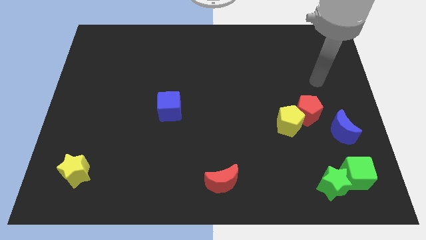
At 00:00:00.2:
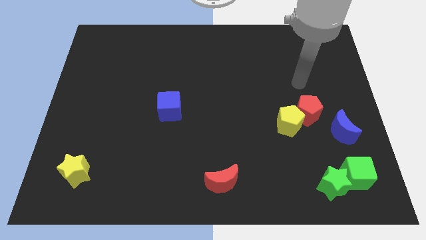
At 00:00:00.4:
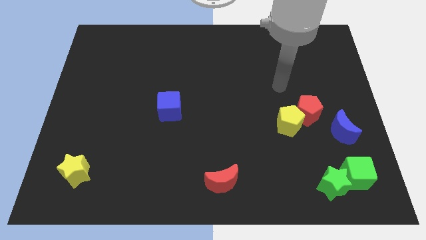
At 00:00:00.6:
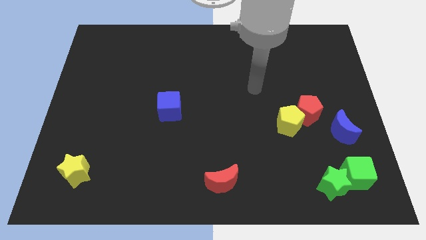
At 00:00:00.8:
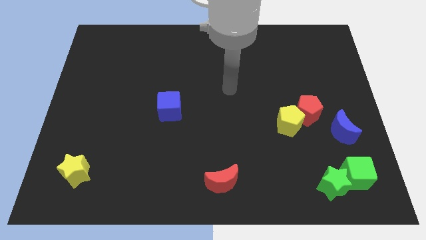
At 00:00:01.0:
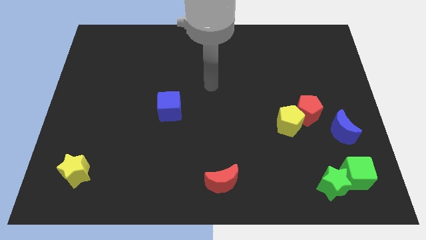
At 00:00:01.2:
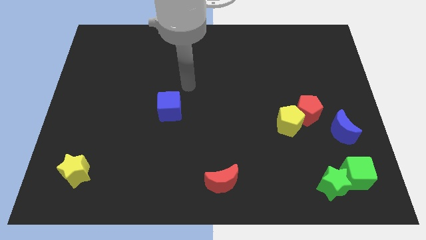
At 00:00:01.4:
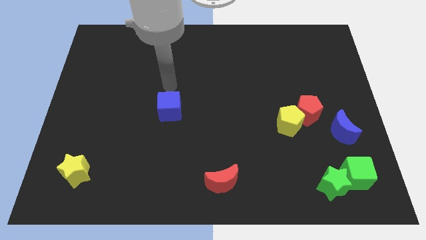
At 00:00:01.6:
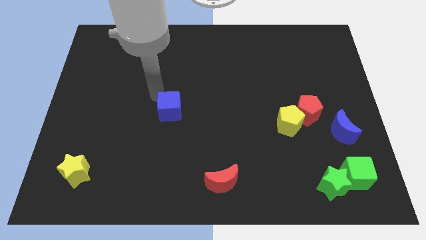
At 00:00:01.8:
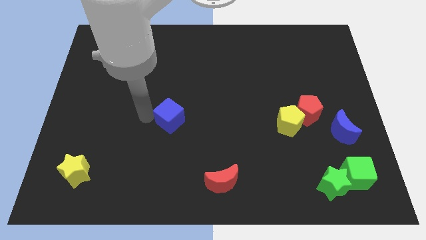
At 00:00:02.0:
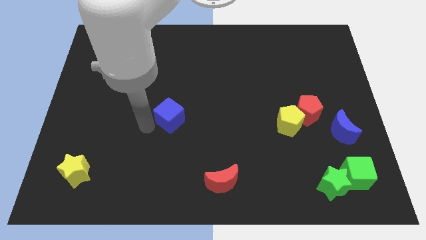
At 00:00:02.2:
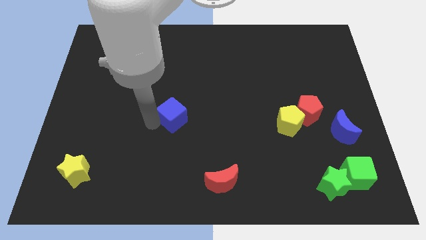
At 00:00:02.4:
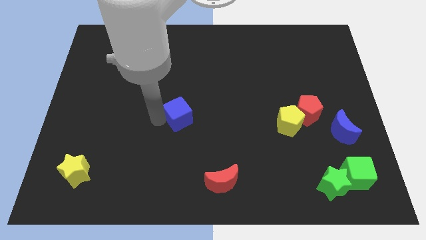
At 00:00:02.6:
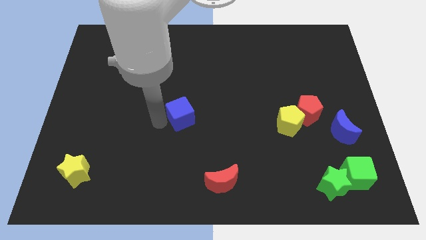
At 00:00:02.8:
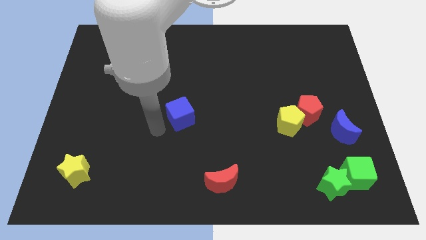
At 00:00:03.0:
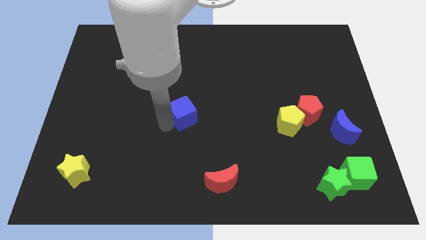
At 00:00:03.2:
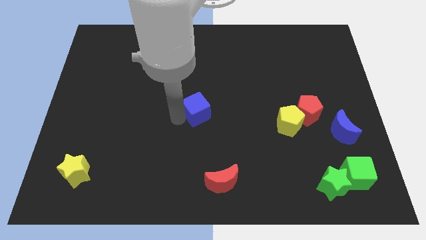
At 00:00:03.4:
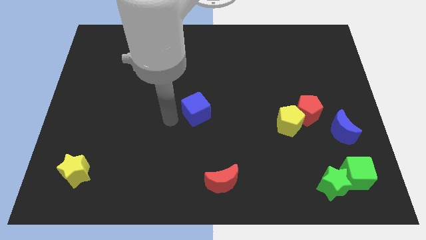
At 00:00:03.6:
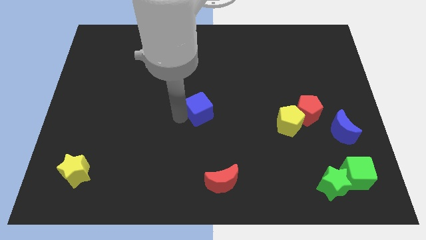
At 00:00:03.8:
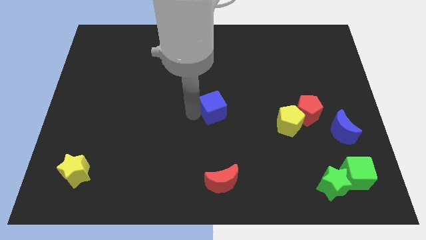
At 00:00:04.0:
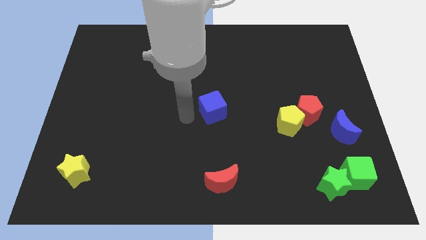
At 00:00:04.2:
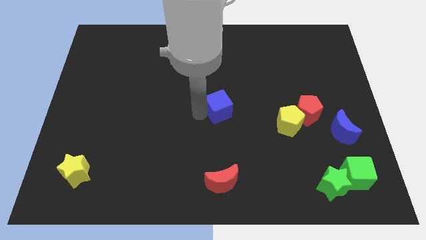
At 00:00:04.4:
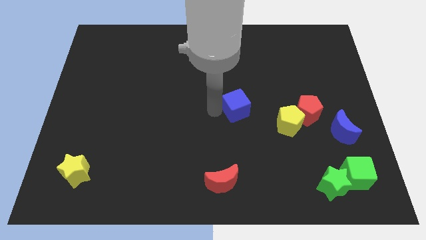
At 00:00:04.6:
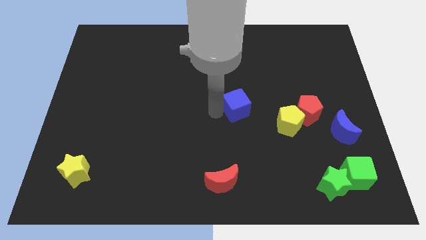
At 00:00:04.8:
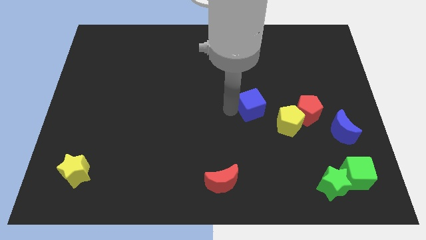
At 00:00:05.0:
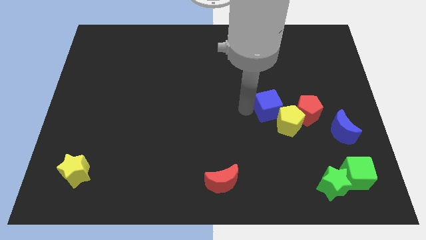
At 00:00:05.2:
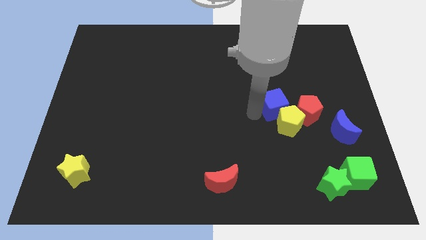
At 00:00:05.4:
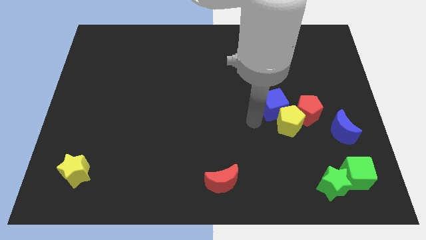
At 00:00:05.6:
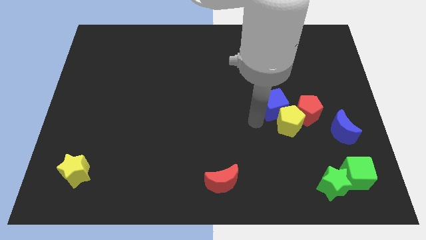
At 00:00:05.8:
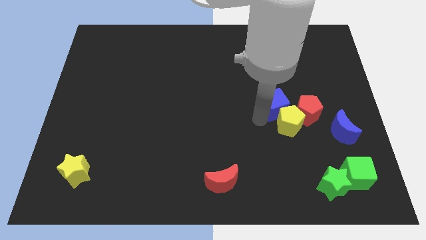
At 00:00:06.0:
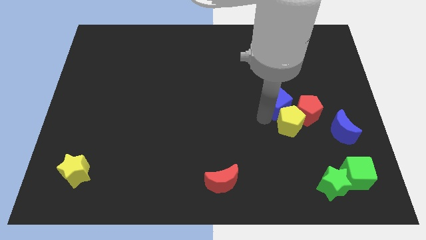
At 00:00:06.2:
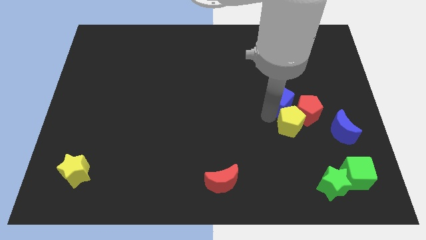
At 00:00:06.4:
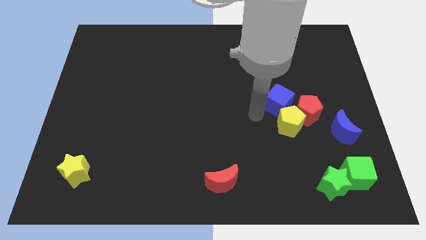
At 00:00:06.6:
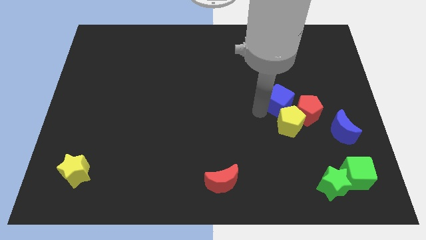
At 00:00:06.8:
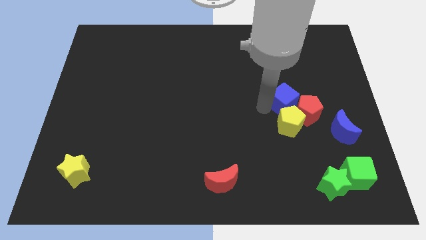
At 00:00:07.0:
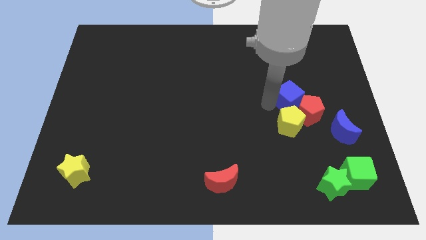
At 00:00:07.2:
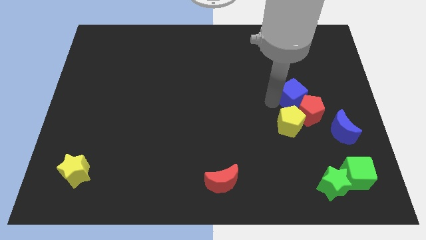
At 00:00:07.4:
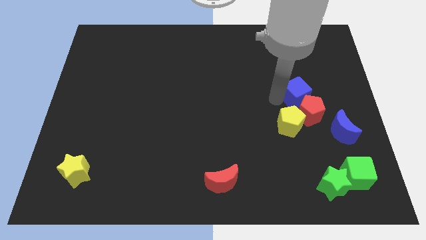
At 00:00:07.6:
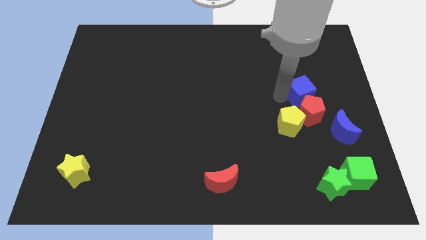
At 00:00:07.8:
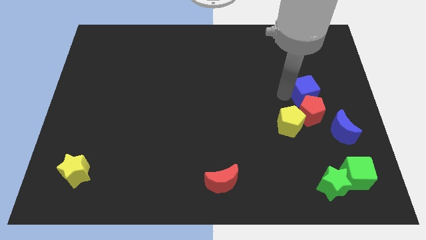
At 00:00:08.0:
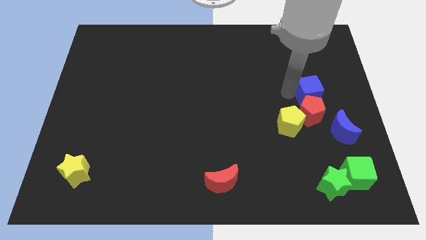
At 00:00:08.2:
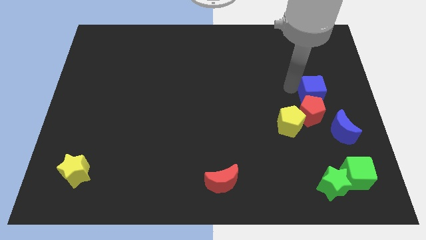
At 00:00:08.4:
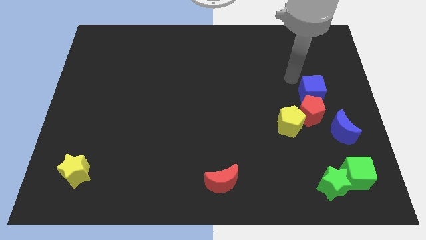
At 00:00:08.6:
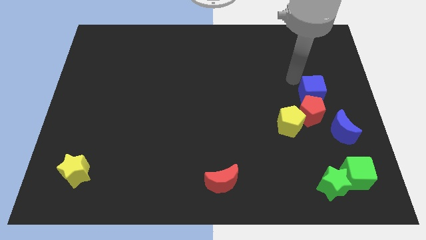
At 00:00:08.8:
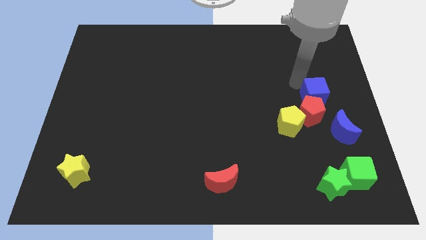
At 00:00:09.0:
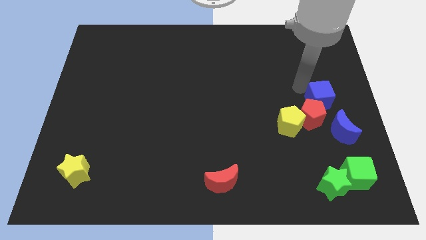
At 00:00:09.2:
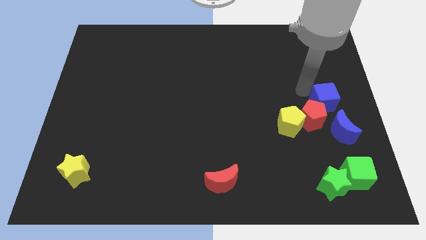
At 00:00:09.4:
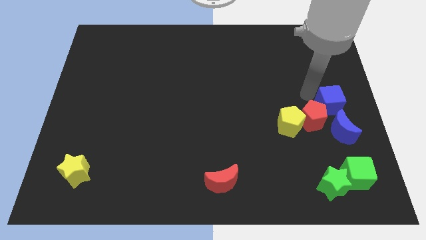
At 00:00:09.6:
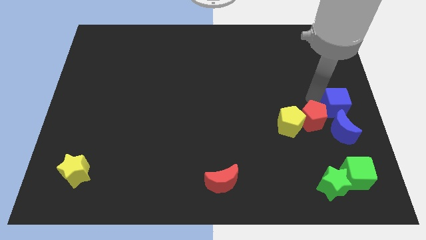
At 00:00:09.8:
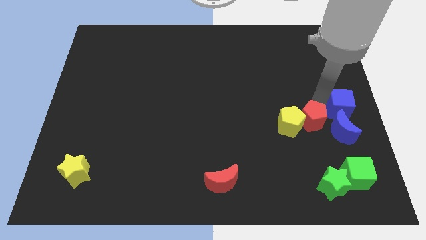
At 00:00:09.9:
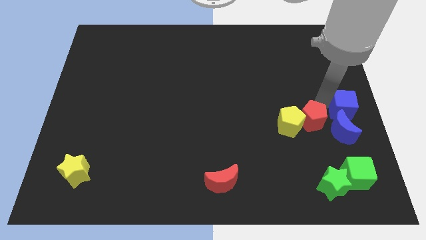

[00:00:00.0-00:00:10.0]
push the blue cube right of the yellow pentagon

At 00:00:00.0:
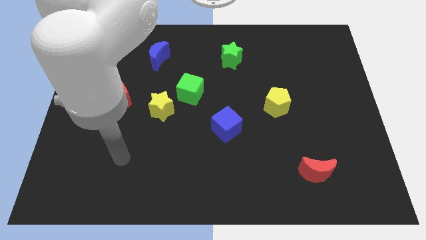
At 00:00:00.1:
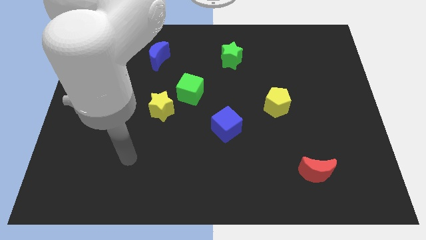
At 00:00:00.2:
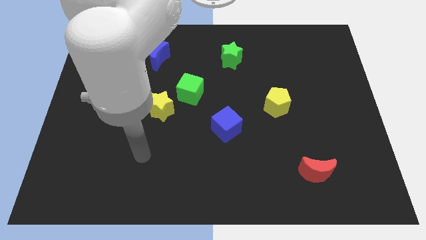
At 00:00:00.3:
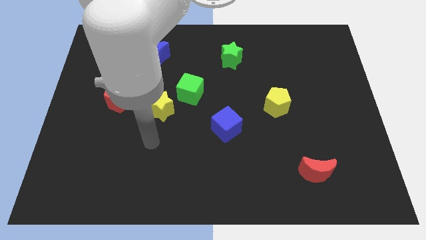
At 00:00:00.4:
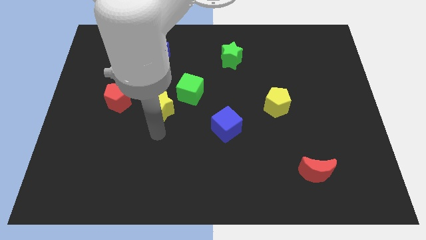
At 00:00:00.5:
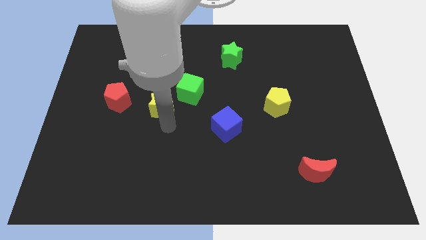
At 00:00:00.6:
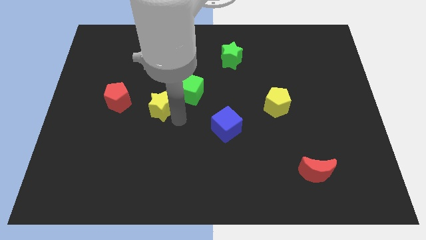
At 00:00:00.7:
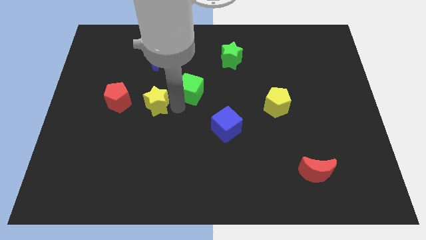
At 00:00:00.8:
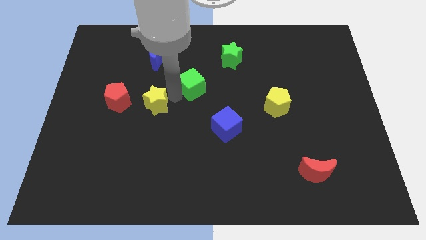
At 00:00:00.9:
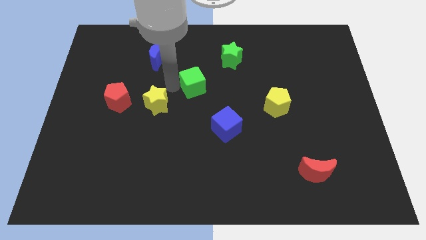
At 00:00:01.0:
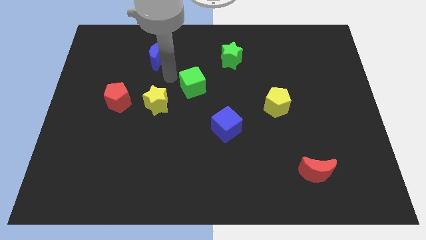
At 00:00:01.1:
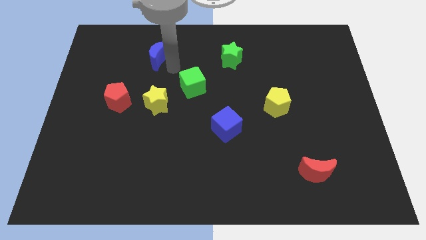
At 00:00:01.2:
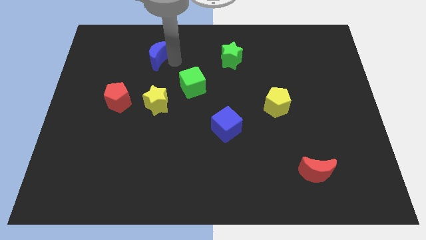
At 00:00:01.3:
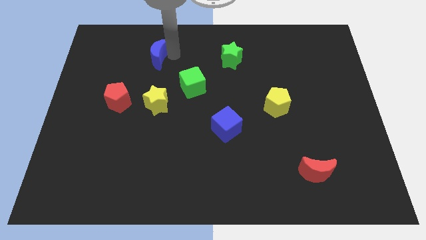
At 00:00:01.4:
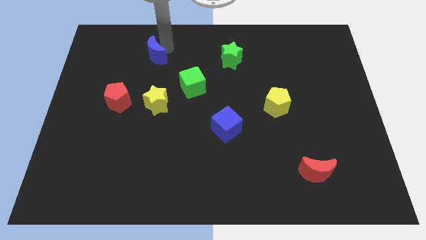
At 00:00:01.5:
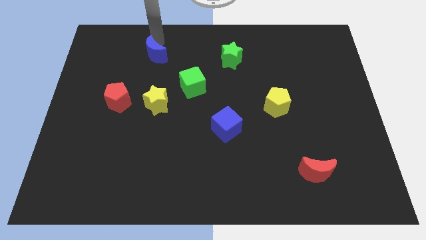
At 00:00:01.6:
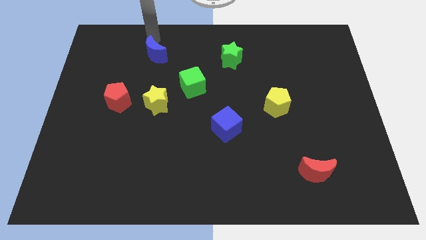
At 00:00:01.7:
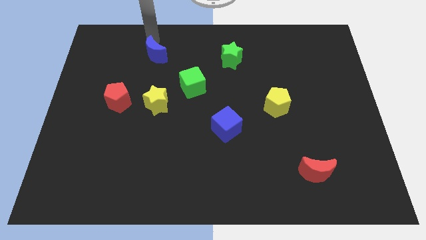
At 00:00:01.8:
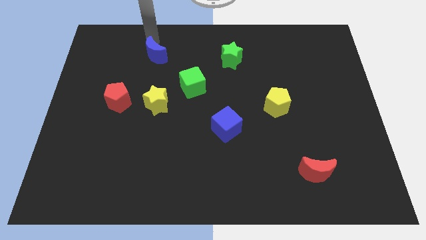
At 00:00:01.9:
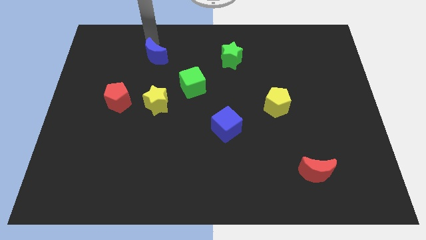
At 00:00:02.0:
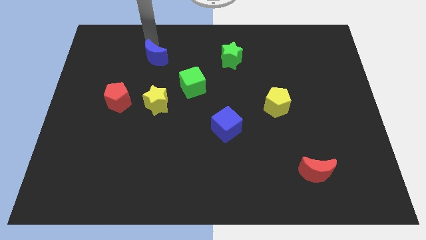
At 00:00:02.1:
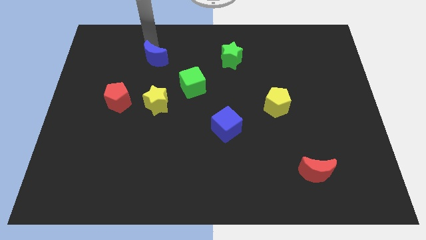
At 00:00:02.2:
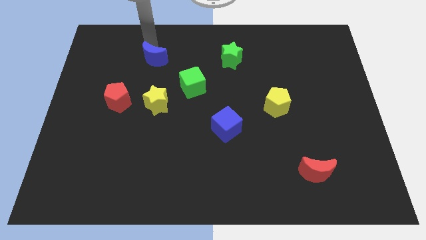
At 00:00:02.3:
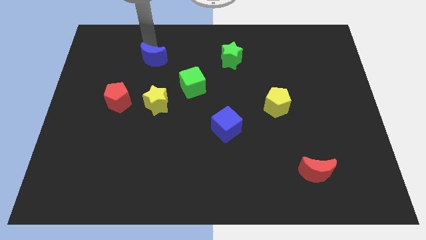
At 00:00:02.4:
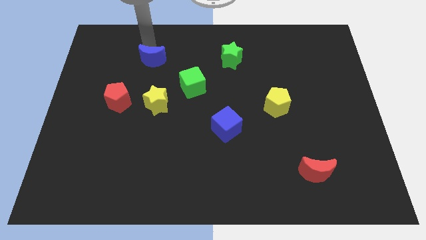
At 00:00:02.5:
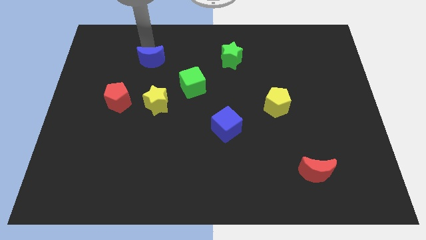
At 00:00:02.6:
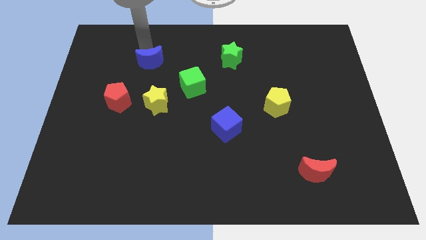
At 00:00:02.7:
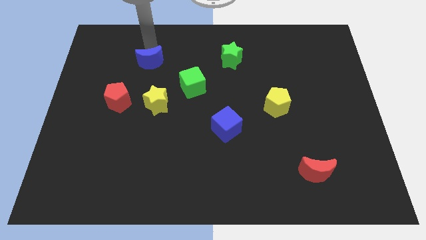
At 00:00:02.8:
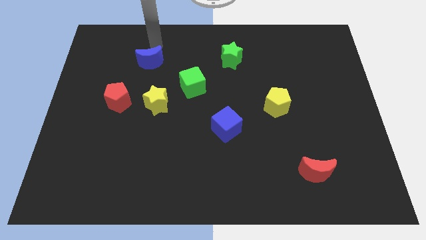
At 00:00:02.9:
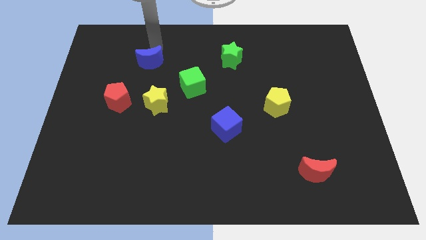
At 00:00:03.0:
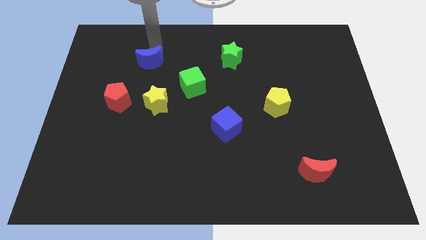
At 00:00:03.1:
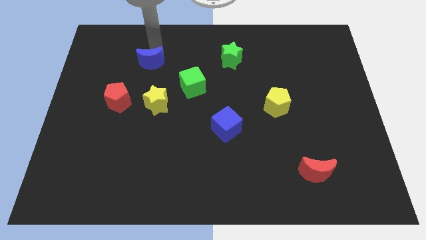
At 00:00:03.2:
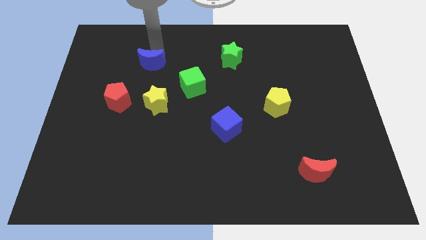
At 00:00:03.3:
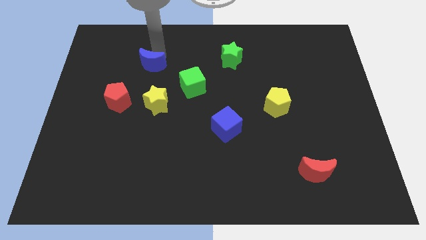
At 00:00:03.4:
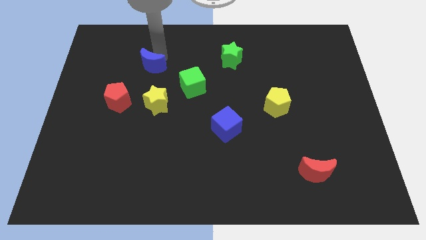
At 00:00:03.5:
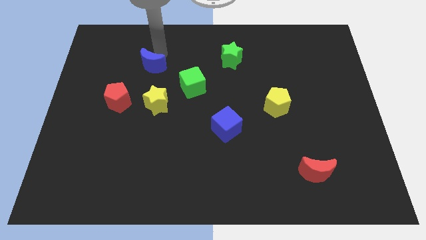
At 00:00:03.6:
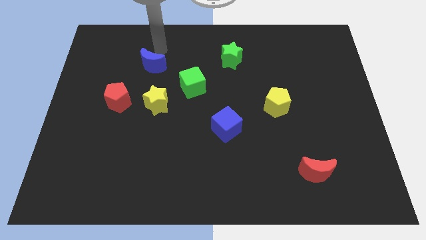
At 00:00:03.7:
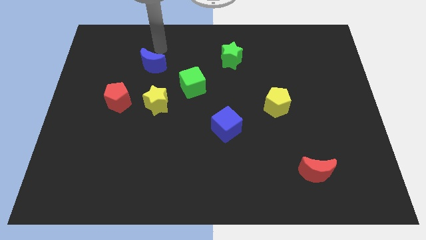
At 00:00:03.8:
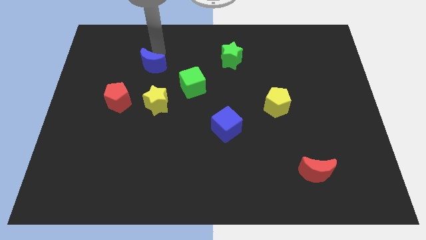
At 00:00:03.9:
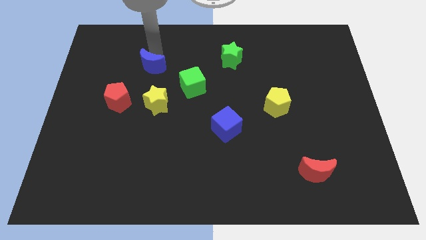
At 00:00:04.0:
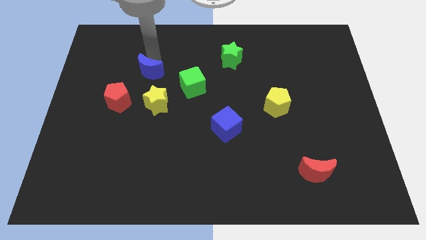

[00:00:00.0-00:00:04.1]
put the blue moon to the top right side of the red pentagon
